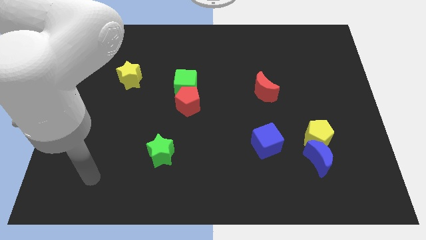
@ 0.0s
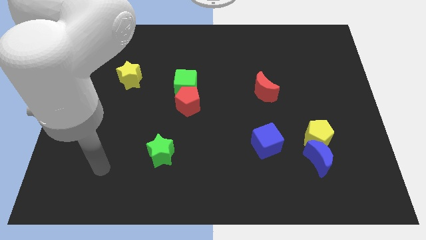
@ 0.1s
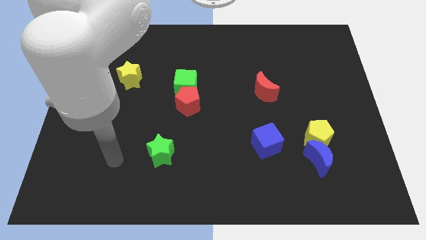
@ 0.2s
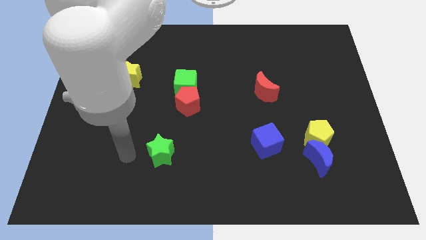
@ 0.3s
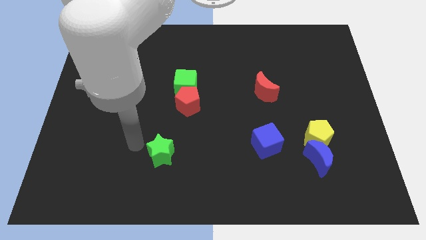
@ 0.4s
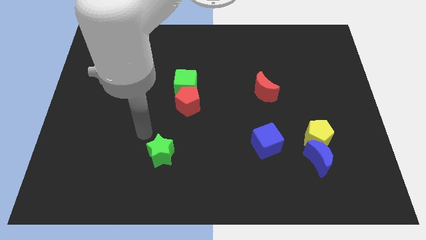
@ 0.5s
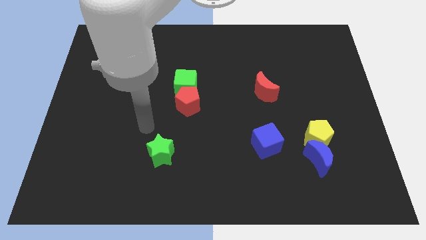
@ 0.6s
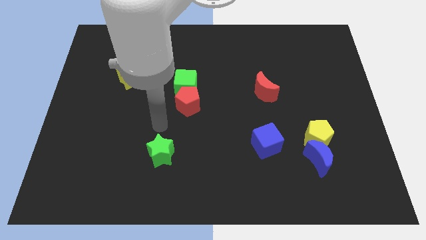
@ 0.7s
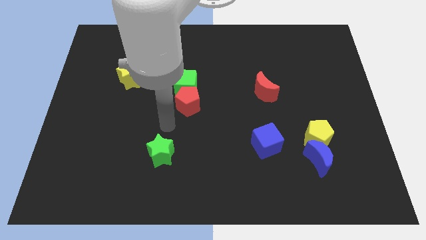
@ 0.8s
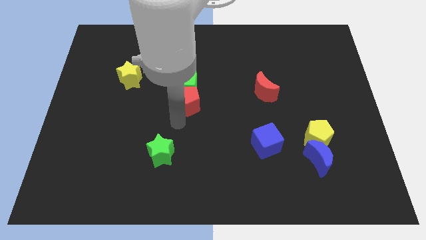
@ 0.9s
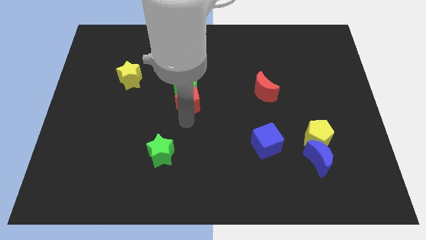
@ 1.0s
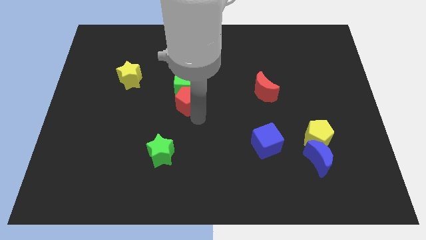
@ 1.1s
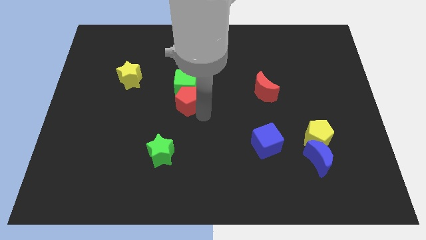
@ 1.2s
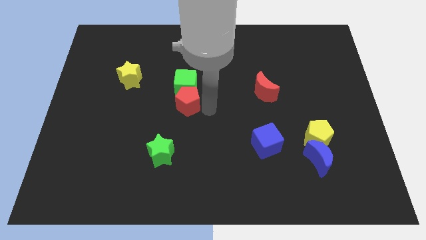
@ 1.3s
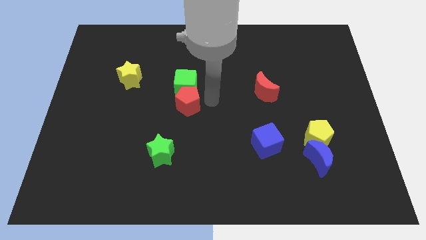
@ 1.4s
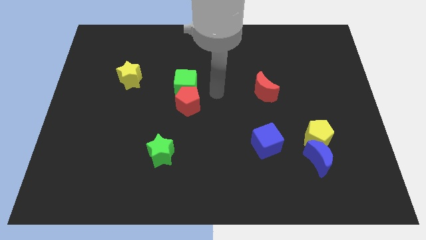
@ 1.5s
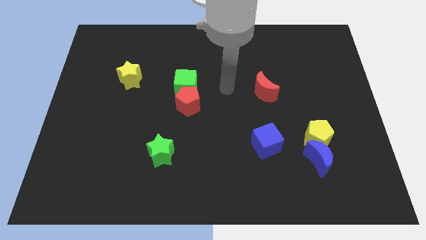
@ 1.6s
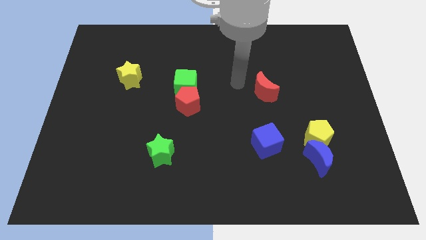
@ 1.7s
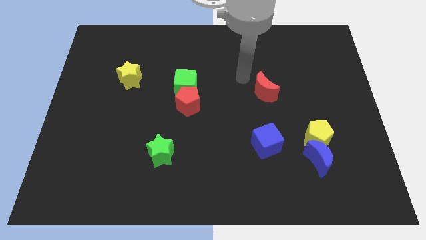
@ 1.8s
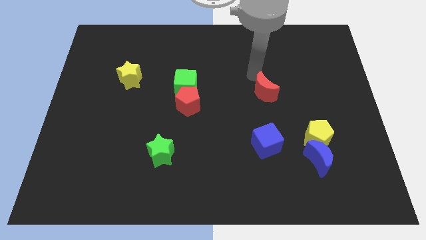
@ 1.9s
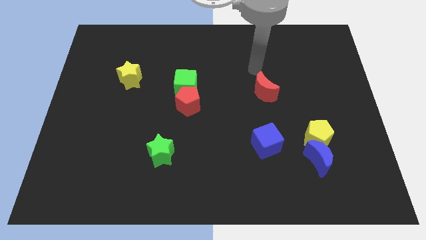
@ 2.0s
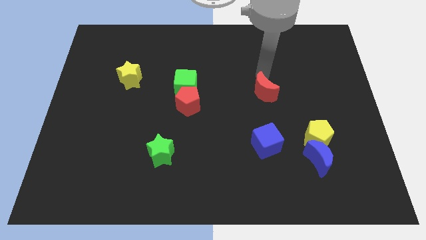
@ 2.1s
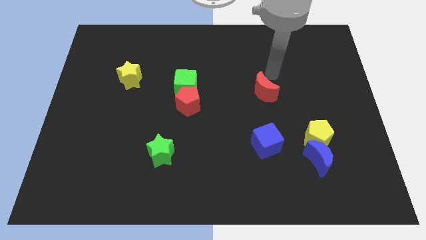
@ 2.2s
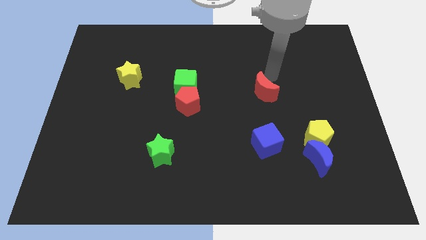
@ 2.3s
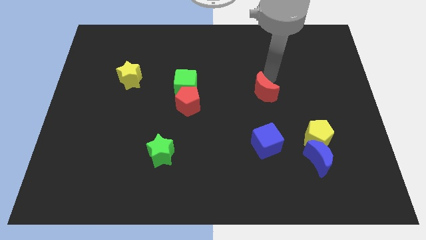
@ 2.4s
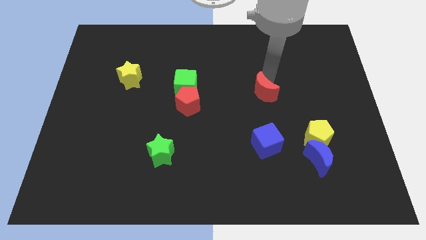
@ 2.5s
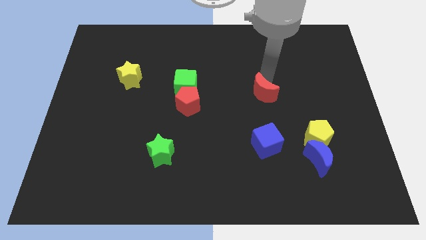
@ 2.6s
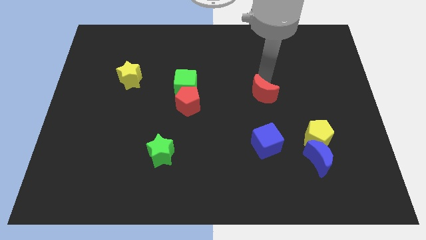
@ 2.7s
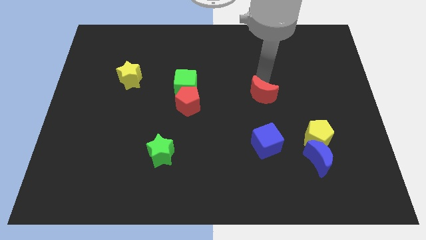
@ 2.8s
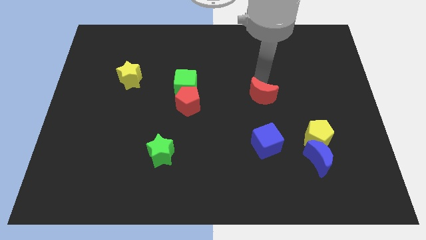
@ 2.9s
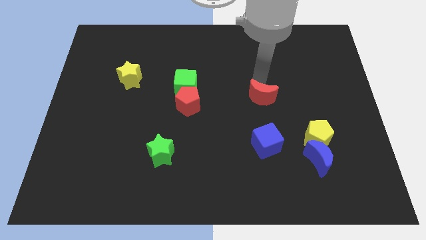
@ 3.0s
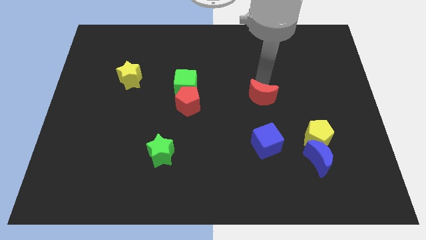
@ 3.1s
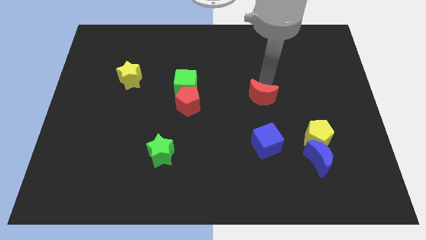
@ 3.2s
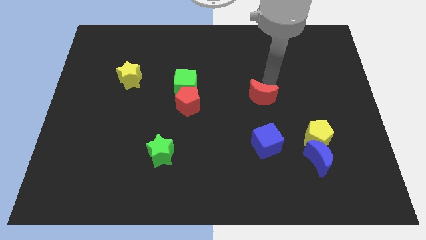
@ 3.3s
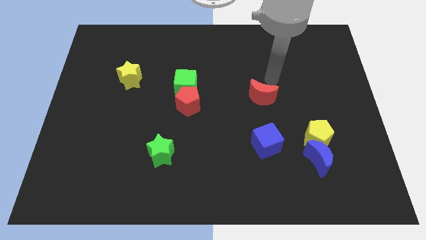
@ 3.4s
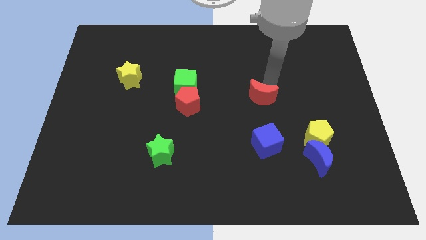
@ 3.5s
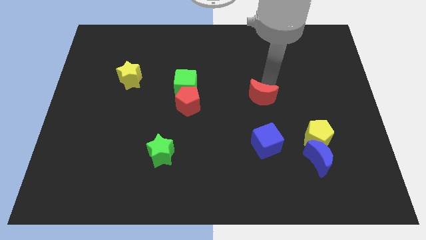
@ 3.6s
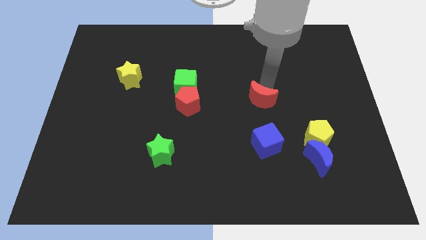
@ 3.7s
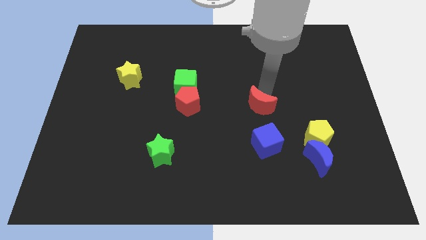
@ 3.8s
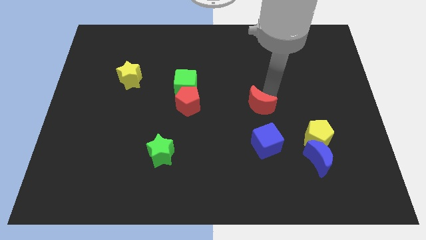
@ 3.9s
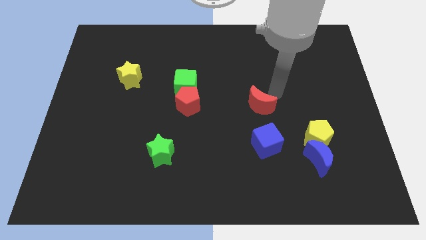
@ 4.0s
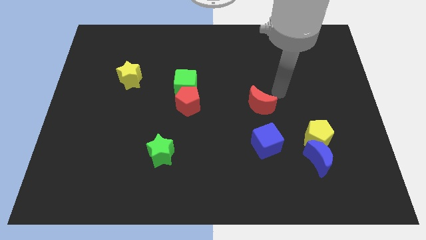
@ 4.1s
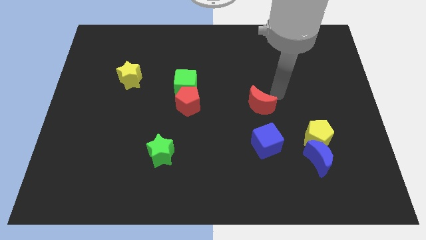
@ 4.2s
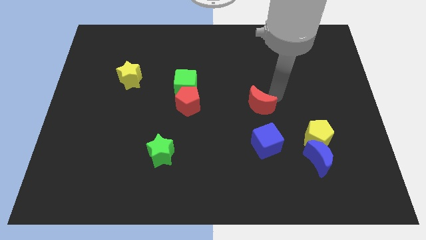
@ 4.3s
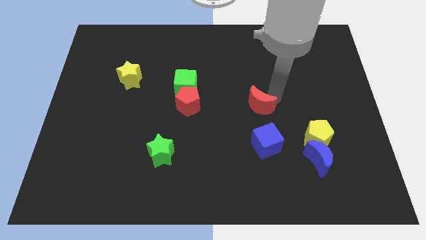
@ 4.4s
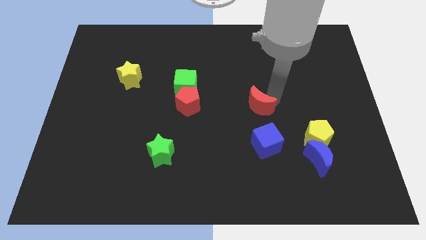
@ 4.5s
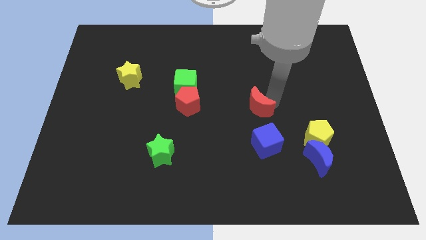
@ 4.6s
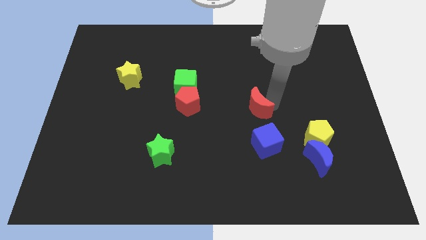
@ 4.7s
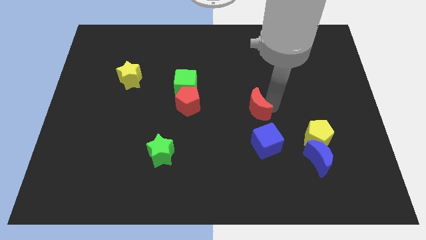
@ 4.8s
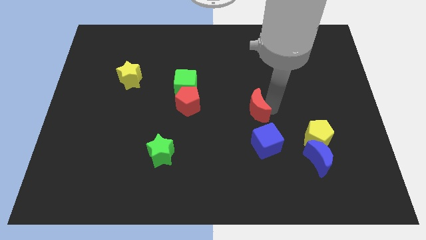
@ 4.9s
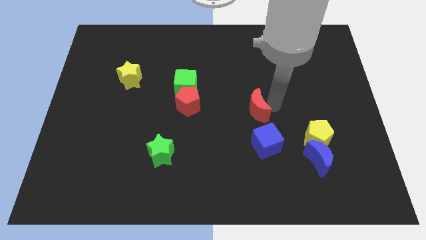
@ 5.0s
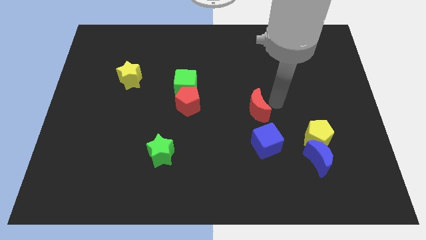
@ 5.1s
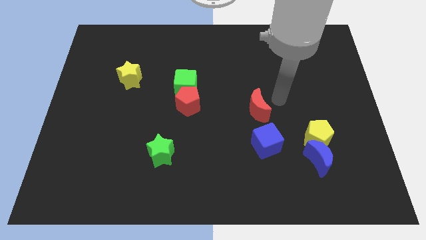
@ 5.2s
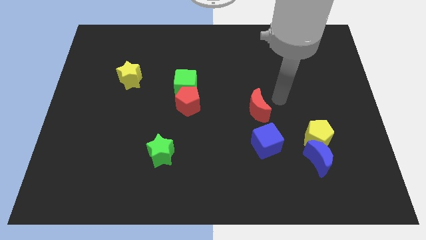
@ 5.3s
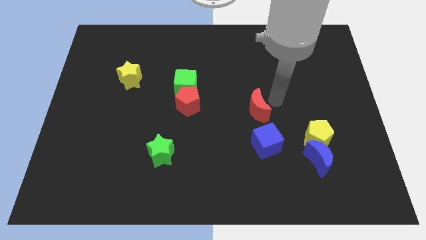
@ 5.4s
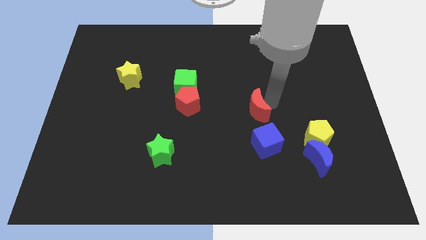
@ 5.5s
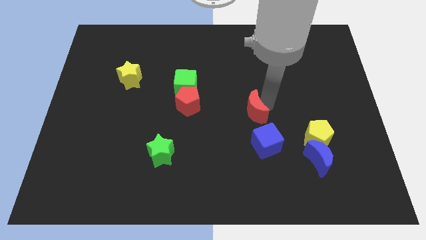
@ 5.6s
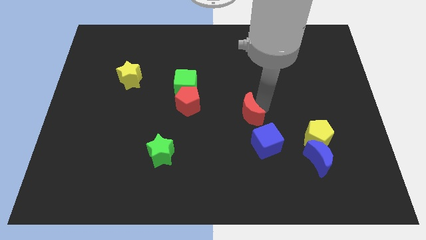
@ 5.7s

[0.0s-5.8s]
slide the red moon downwards and then left a little bit

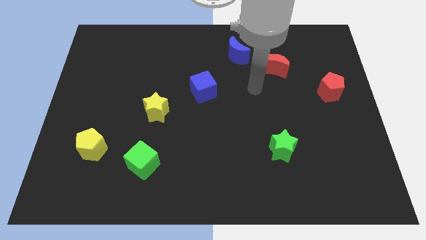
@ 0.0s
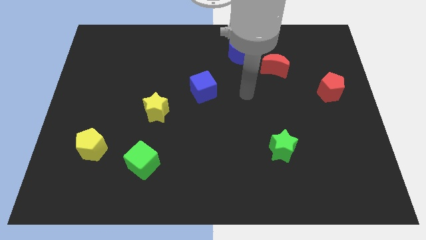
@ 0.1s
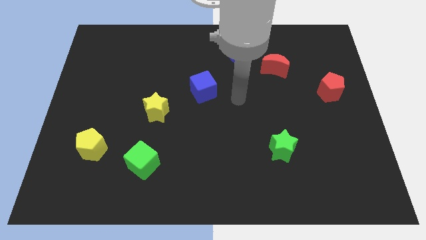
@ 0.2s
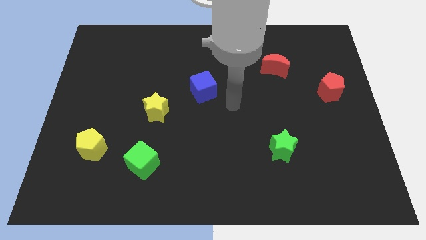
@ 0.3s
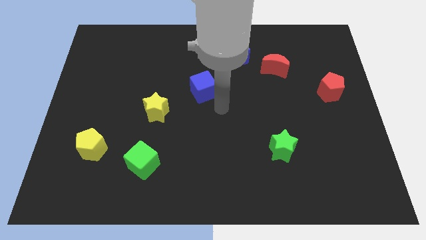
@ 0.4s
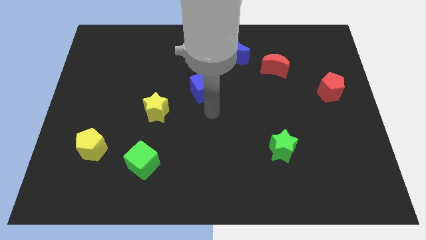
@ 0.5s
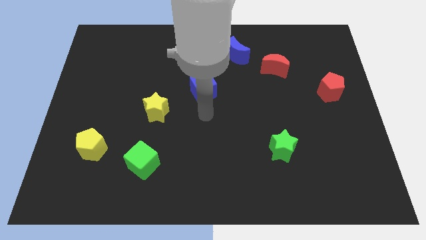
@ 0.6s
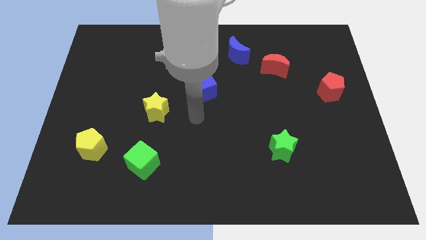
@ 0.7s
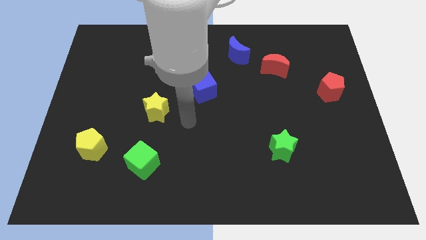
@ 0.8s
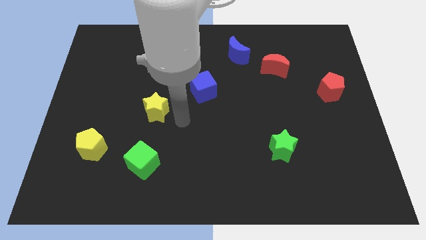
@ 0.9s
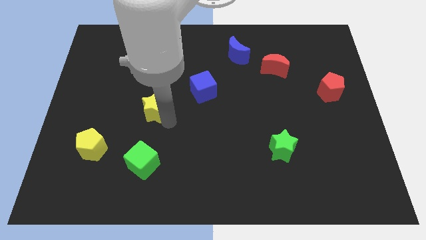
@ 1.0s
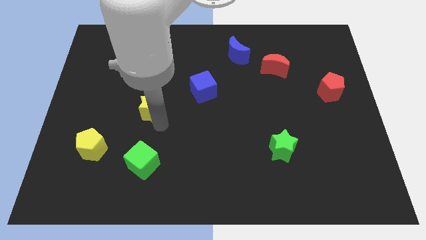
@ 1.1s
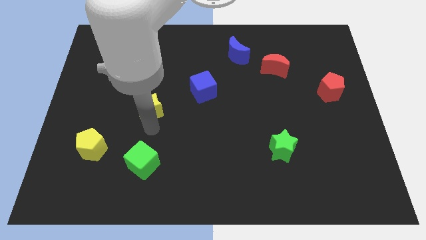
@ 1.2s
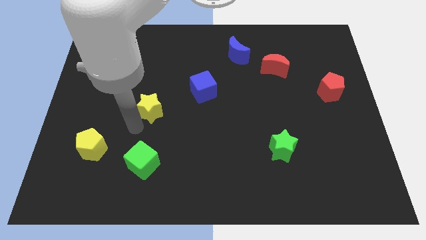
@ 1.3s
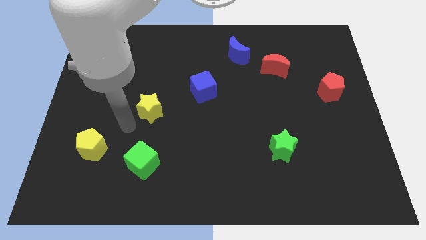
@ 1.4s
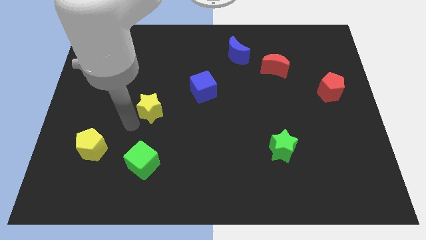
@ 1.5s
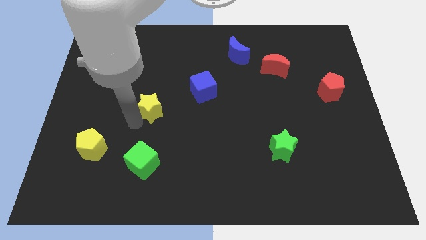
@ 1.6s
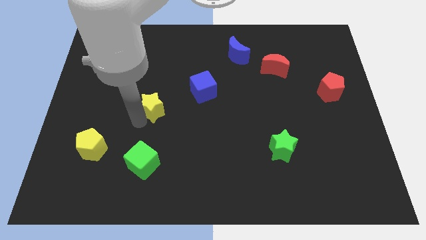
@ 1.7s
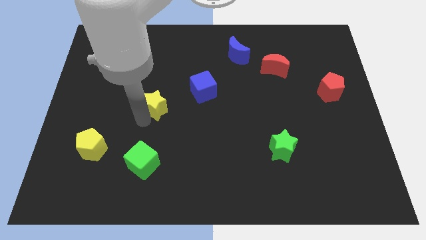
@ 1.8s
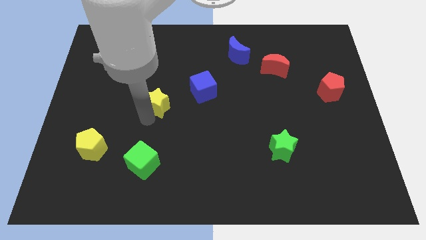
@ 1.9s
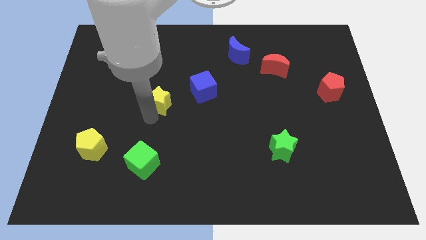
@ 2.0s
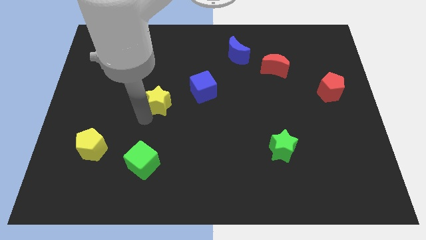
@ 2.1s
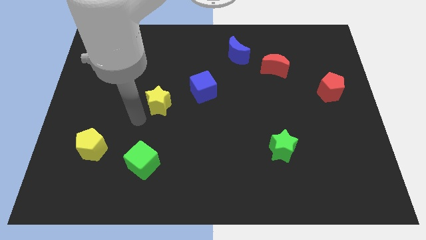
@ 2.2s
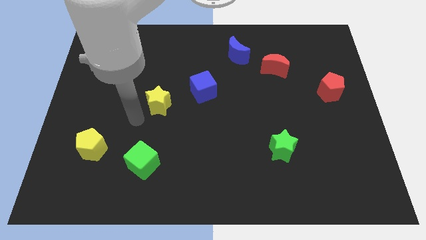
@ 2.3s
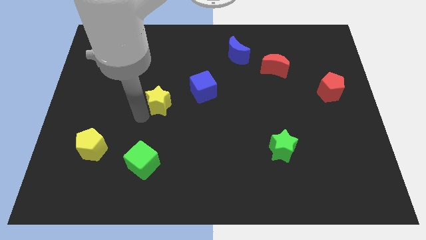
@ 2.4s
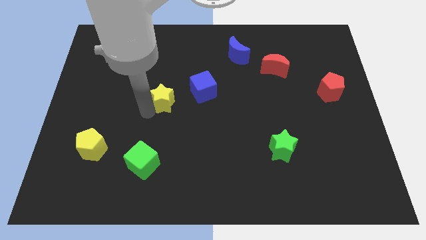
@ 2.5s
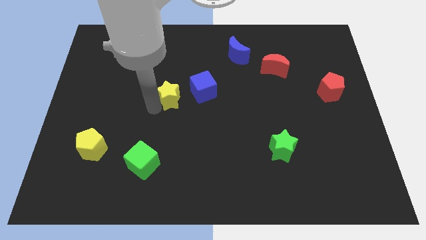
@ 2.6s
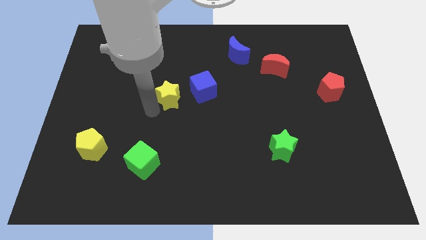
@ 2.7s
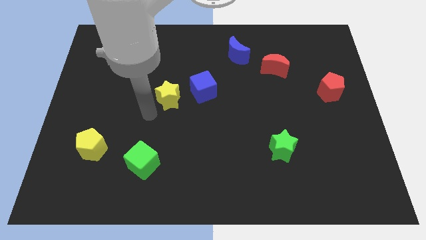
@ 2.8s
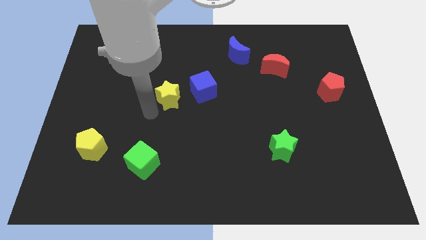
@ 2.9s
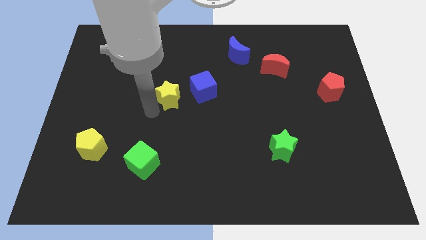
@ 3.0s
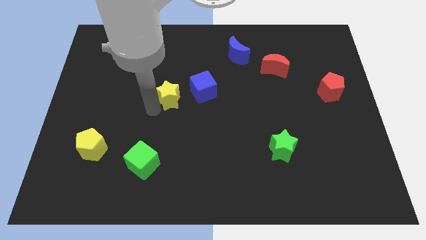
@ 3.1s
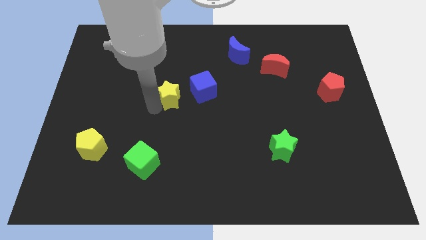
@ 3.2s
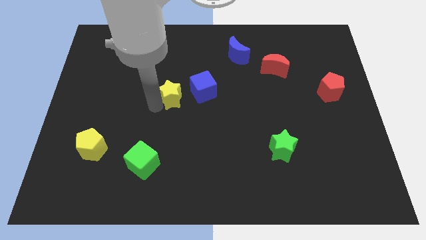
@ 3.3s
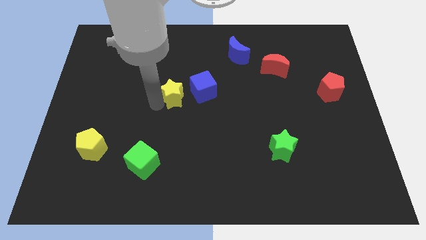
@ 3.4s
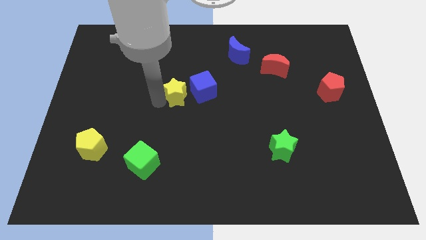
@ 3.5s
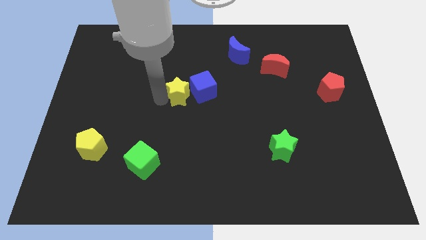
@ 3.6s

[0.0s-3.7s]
slightly move the yellow star up and right diagonally
